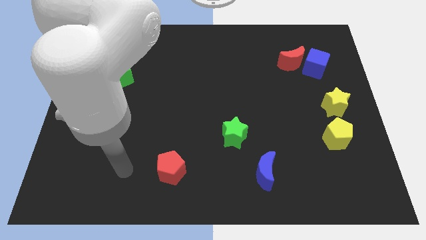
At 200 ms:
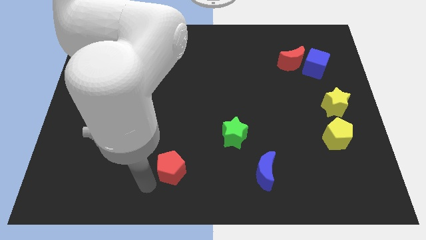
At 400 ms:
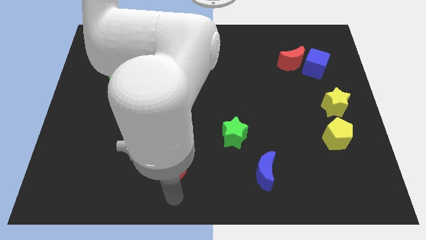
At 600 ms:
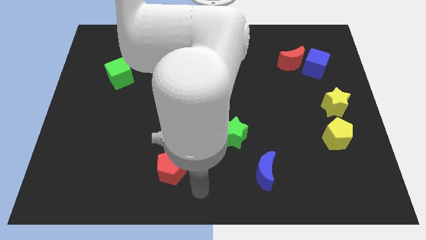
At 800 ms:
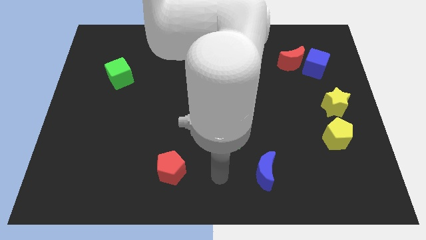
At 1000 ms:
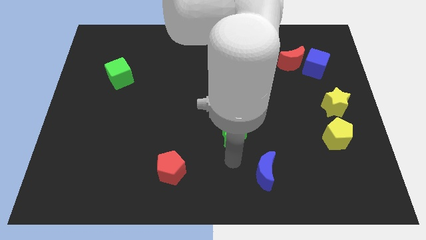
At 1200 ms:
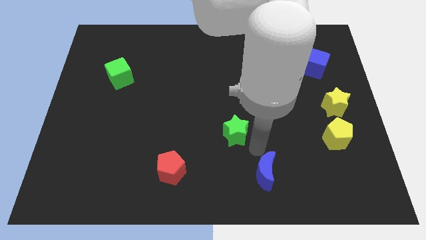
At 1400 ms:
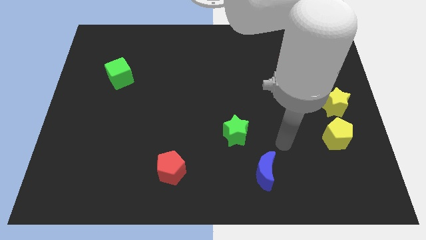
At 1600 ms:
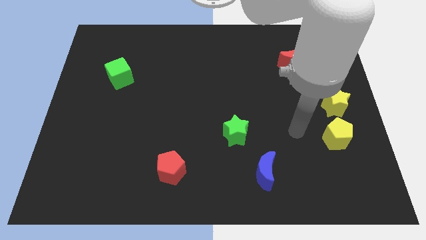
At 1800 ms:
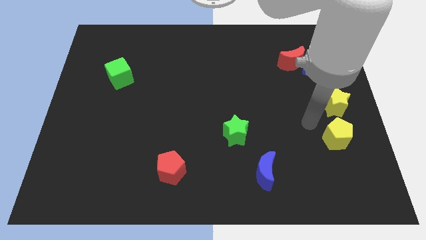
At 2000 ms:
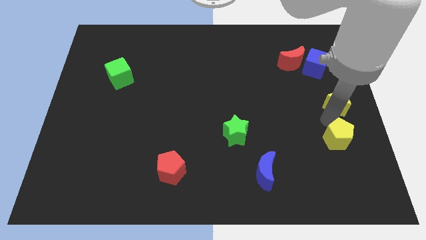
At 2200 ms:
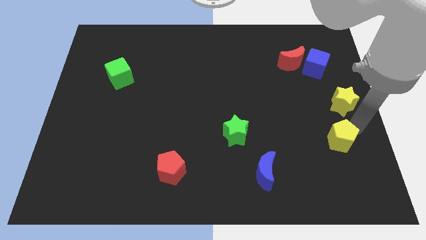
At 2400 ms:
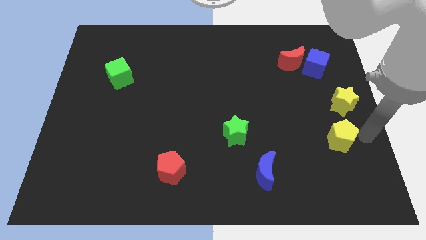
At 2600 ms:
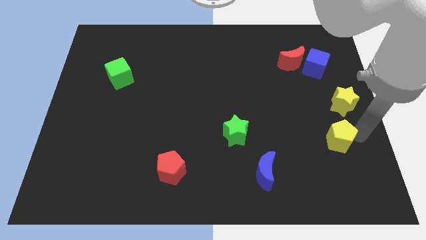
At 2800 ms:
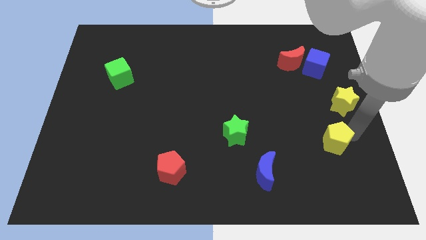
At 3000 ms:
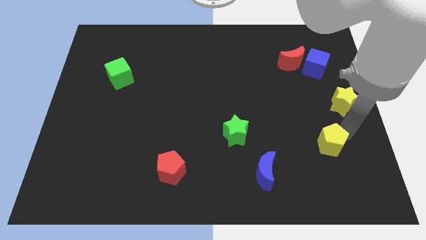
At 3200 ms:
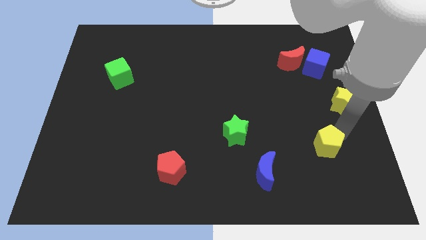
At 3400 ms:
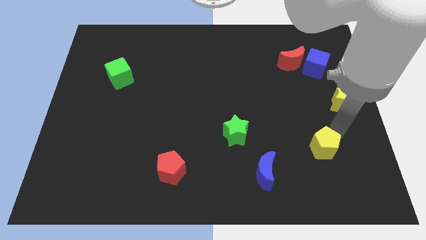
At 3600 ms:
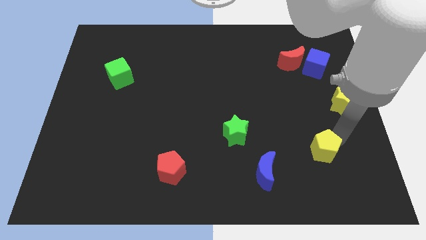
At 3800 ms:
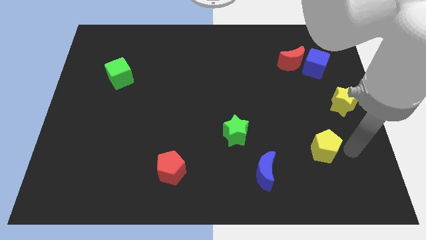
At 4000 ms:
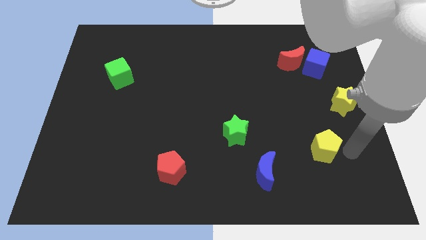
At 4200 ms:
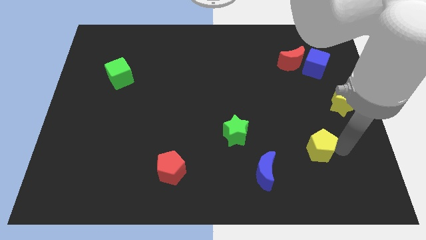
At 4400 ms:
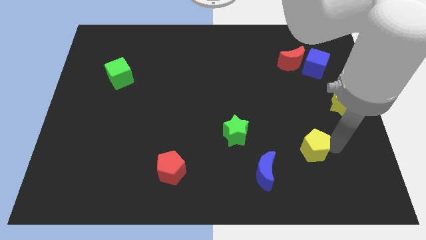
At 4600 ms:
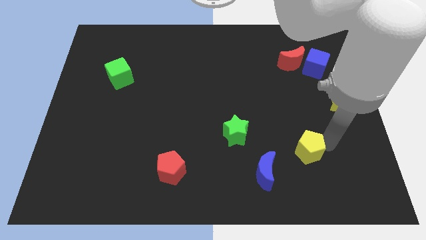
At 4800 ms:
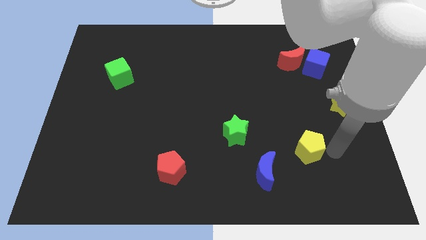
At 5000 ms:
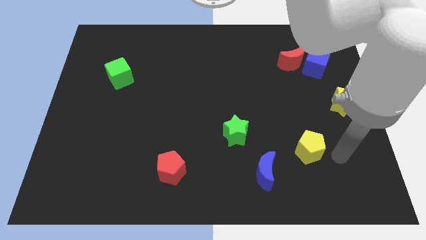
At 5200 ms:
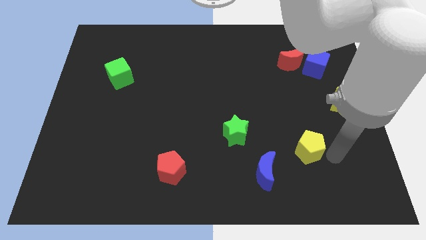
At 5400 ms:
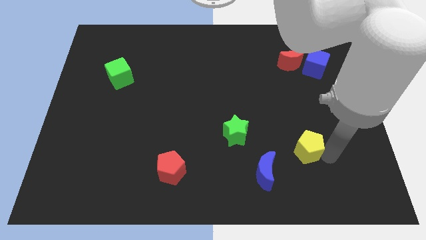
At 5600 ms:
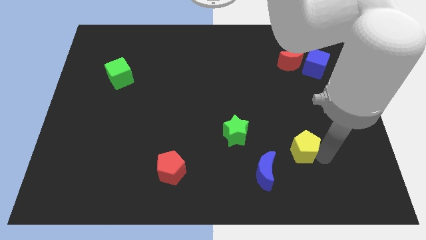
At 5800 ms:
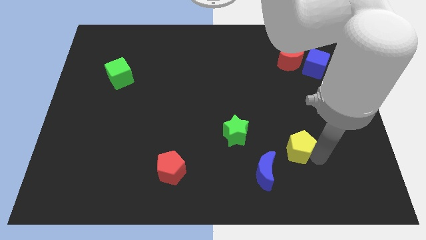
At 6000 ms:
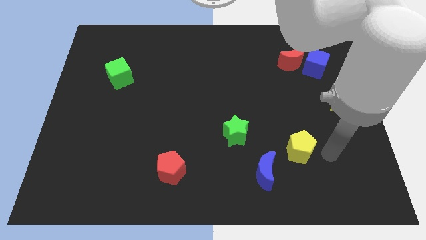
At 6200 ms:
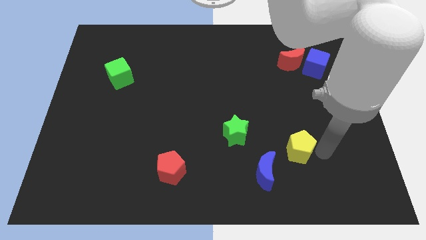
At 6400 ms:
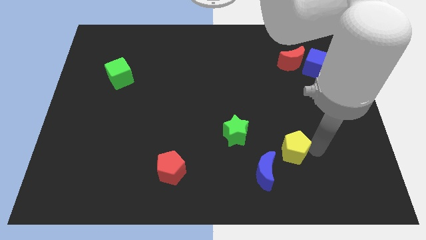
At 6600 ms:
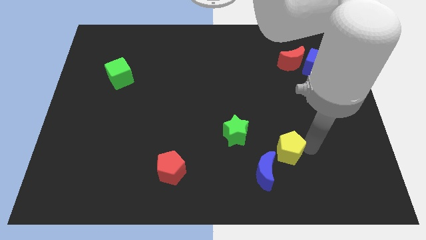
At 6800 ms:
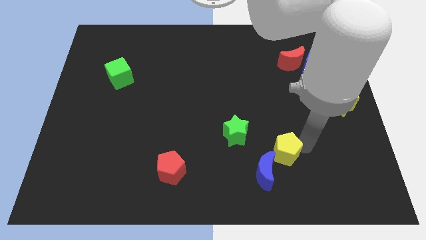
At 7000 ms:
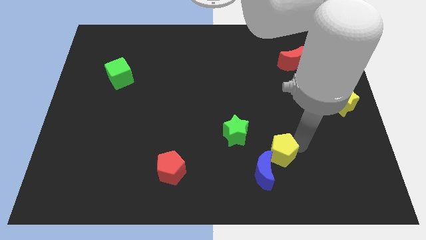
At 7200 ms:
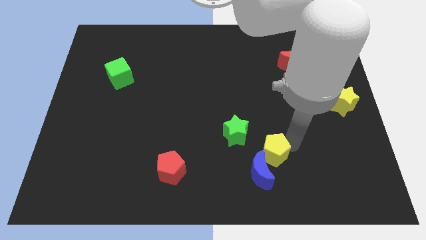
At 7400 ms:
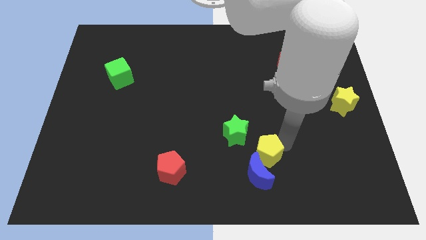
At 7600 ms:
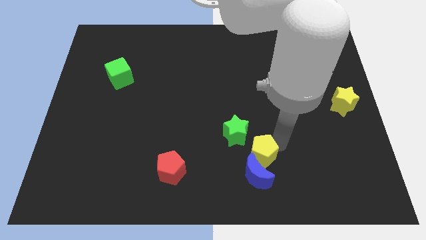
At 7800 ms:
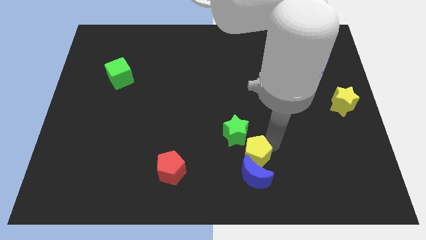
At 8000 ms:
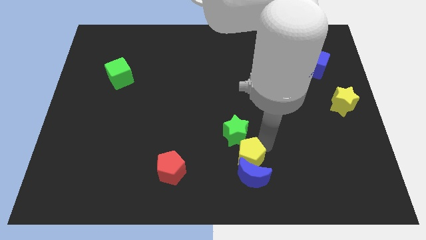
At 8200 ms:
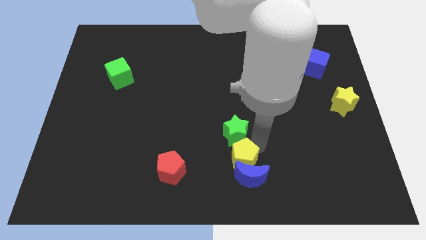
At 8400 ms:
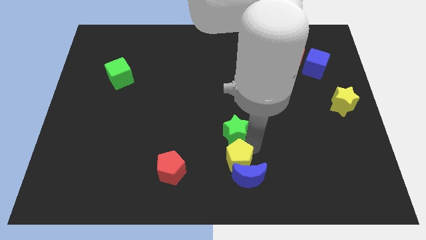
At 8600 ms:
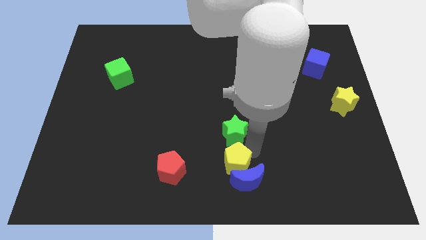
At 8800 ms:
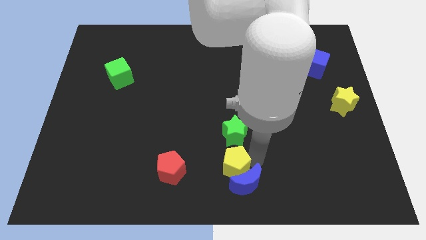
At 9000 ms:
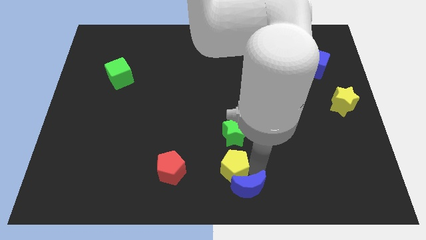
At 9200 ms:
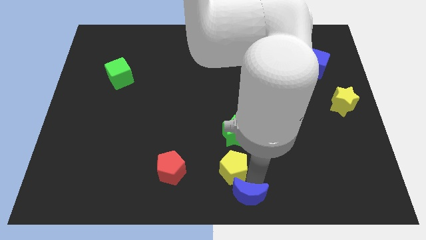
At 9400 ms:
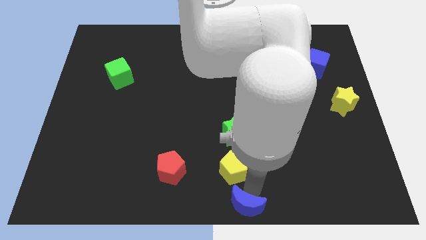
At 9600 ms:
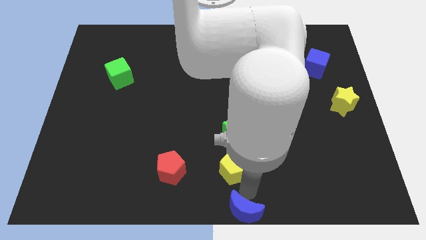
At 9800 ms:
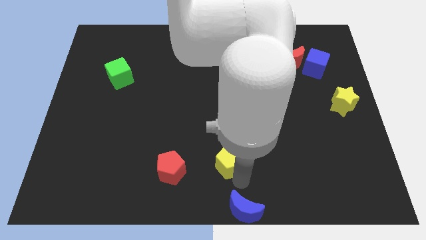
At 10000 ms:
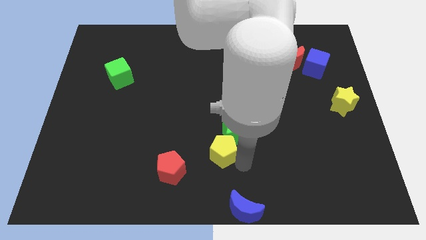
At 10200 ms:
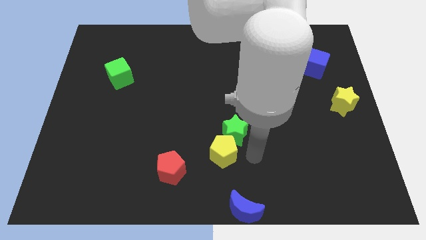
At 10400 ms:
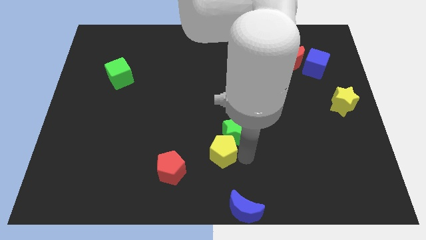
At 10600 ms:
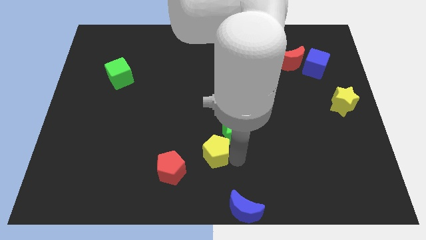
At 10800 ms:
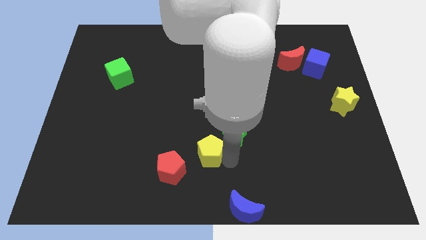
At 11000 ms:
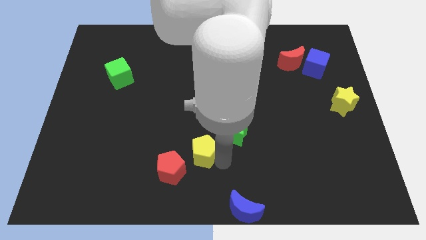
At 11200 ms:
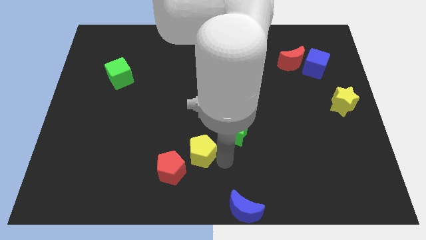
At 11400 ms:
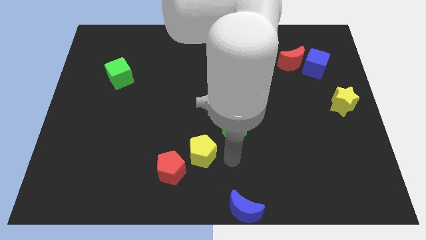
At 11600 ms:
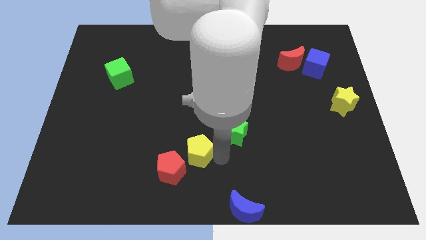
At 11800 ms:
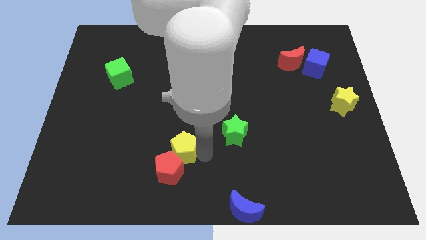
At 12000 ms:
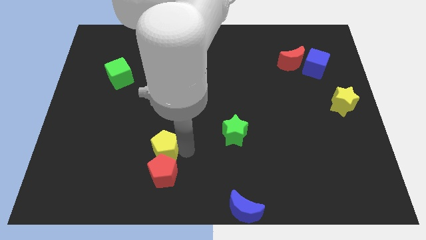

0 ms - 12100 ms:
slide the yellow pentagon diagonally up and to the left of the red pentagon

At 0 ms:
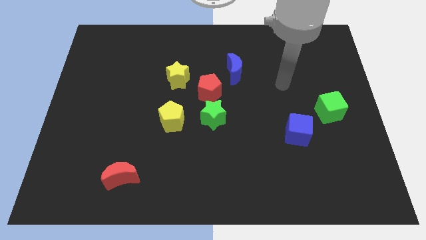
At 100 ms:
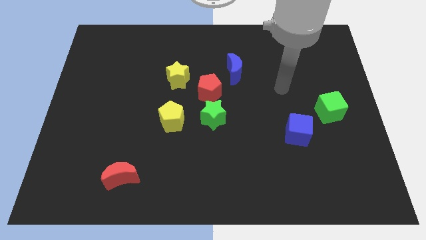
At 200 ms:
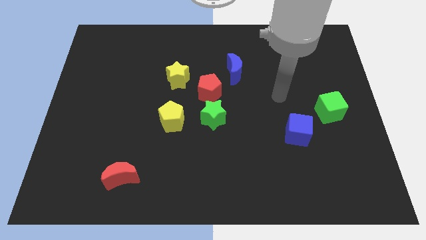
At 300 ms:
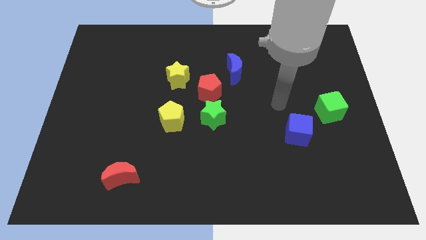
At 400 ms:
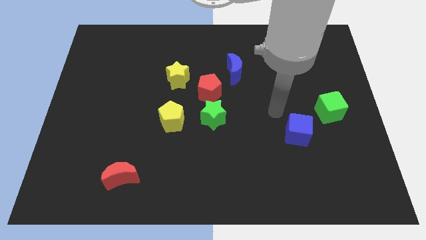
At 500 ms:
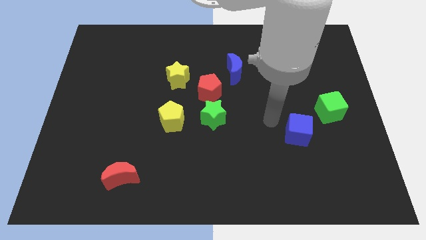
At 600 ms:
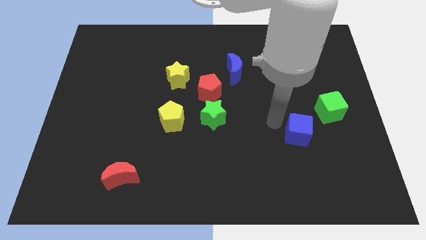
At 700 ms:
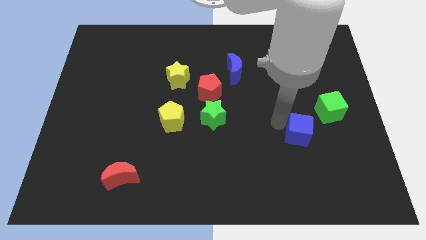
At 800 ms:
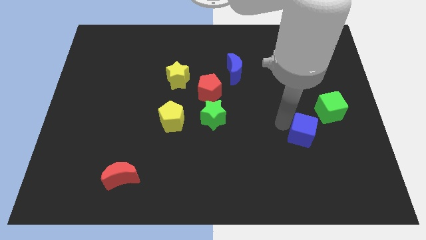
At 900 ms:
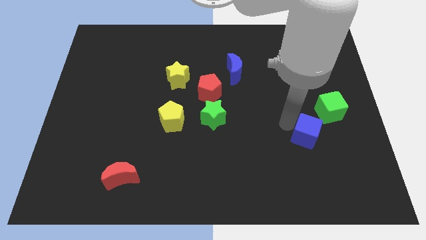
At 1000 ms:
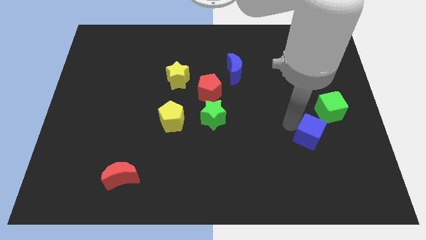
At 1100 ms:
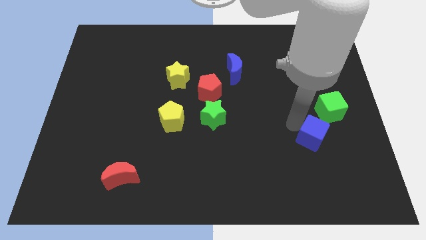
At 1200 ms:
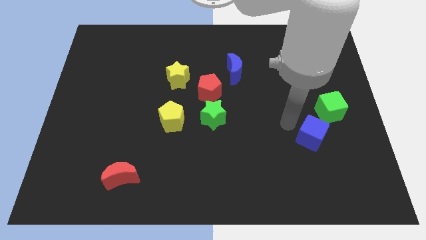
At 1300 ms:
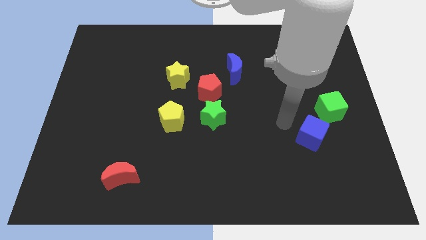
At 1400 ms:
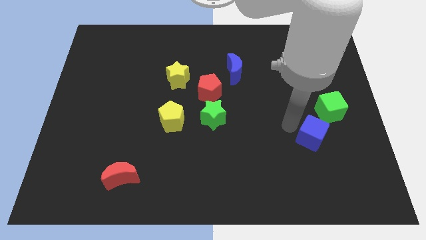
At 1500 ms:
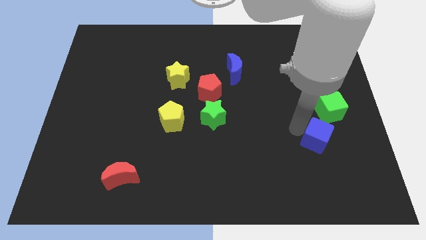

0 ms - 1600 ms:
slide the blue cube below the green cube

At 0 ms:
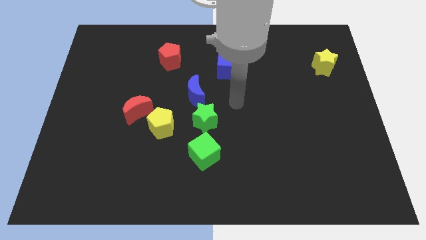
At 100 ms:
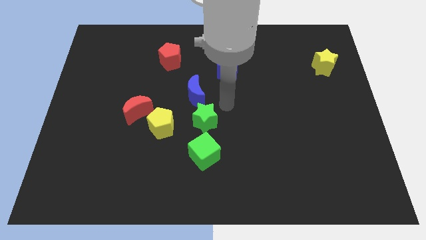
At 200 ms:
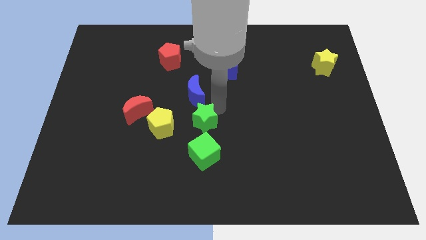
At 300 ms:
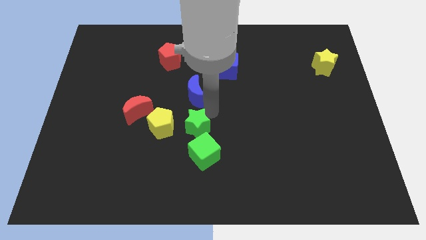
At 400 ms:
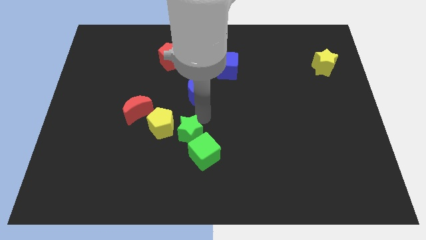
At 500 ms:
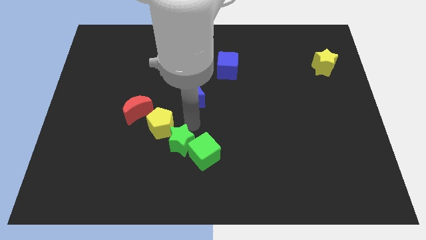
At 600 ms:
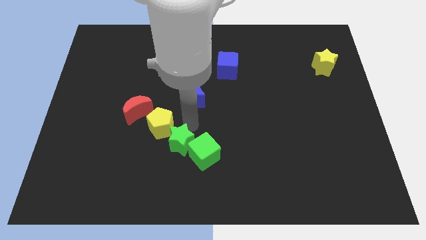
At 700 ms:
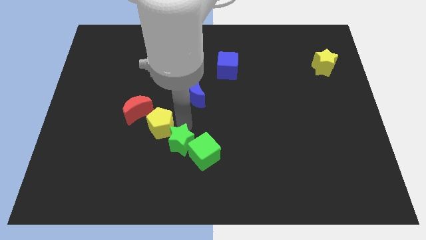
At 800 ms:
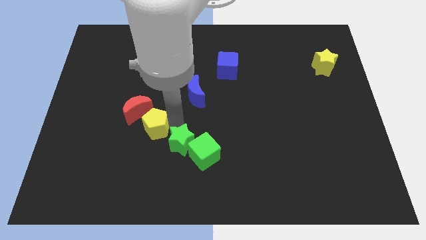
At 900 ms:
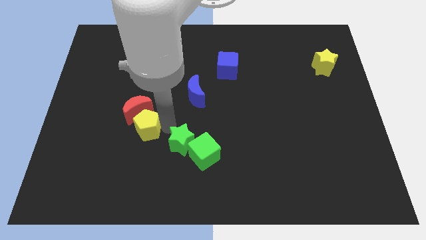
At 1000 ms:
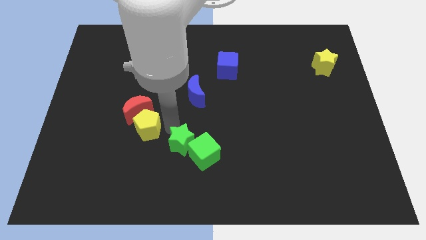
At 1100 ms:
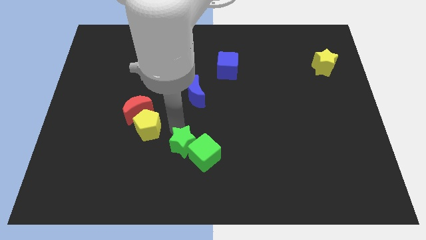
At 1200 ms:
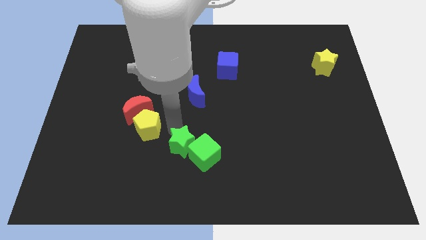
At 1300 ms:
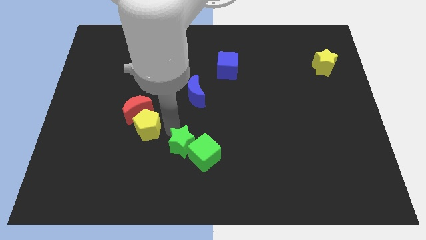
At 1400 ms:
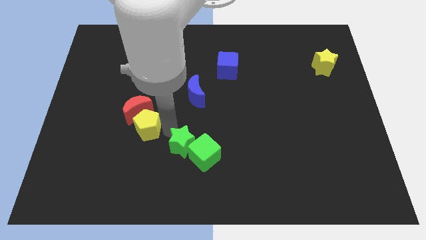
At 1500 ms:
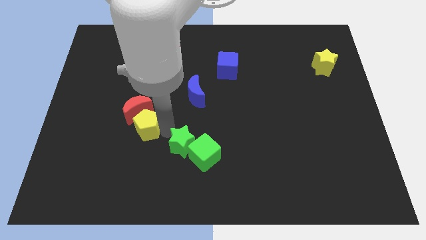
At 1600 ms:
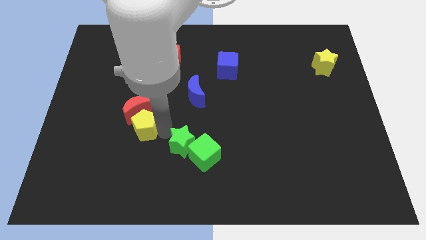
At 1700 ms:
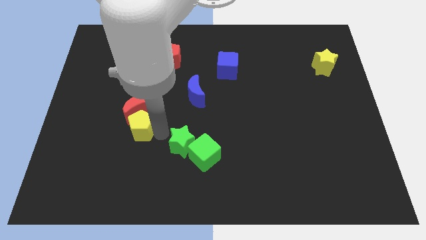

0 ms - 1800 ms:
slide the yellow pentagon diagonally down and to the left of the red moon
